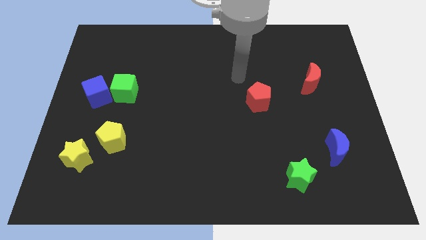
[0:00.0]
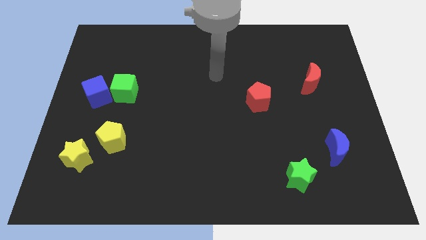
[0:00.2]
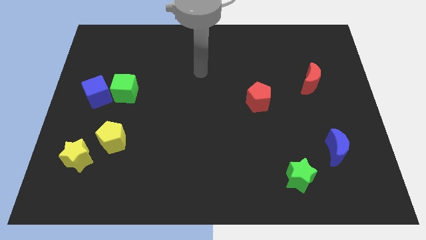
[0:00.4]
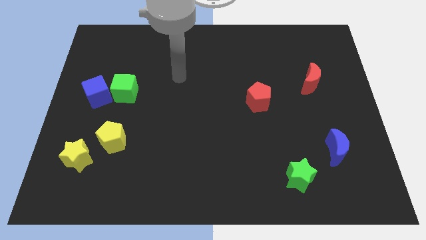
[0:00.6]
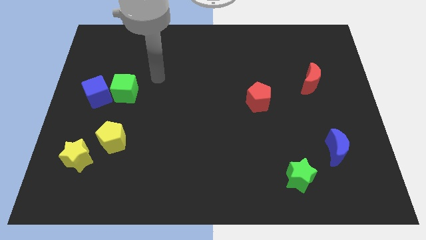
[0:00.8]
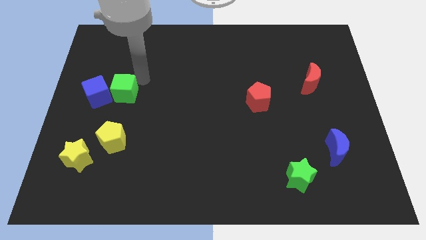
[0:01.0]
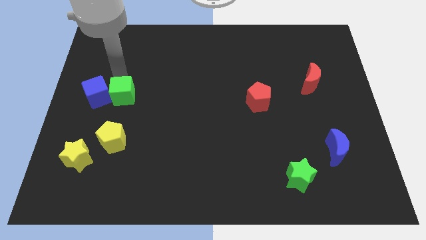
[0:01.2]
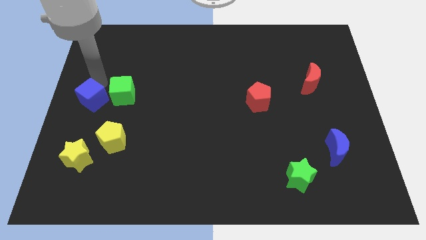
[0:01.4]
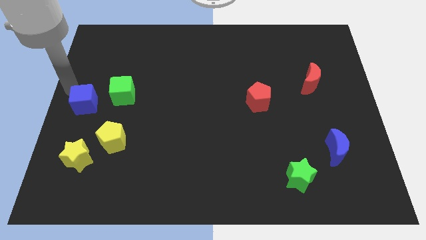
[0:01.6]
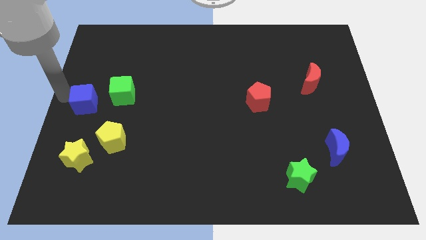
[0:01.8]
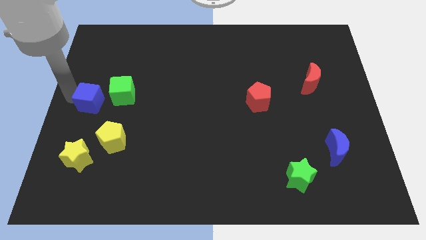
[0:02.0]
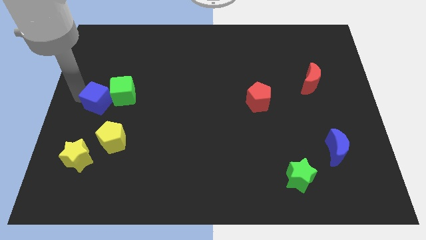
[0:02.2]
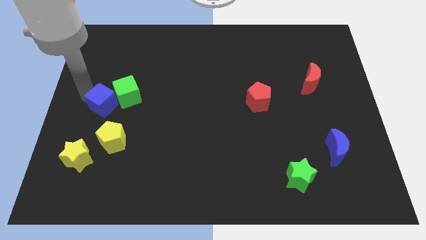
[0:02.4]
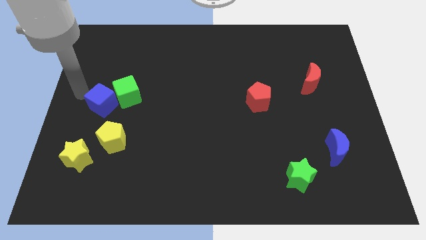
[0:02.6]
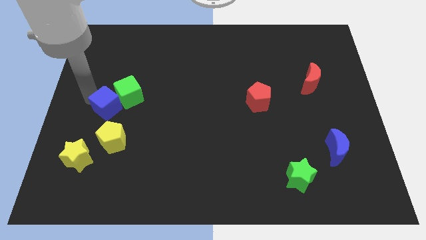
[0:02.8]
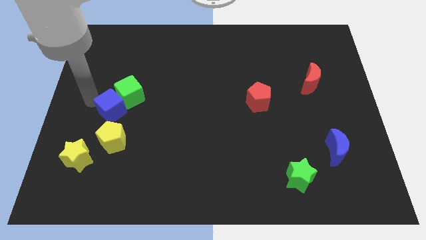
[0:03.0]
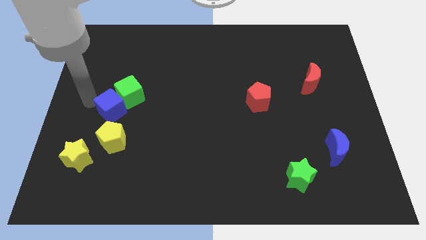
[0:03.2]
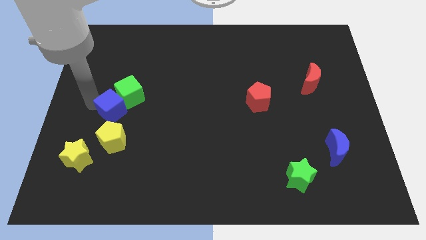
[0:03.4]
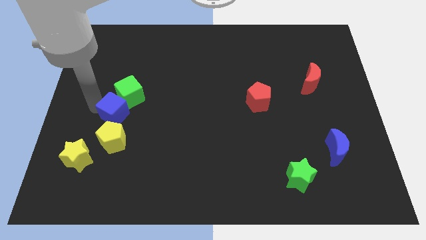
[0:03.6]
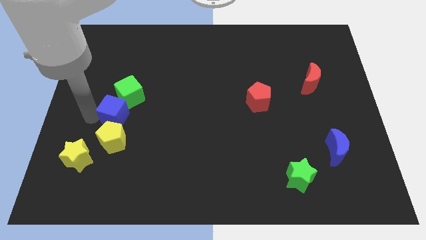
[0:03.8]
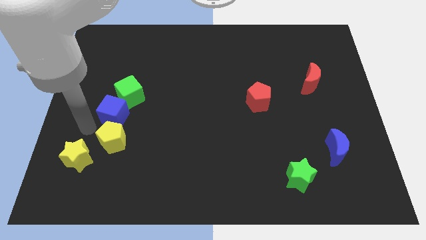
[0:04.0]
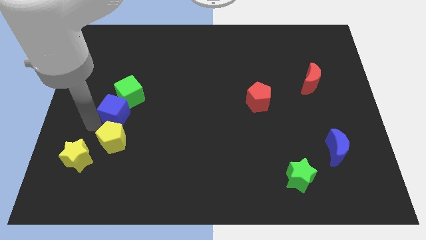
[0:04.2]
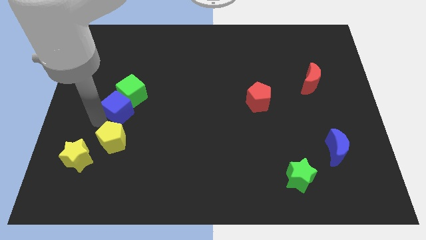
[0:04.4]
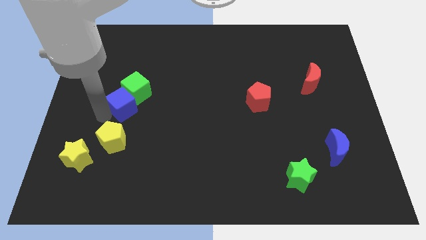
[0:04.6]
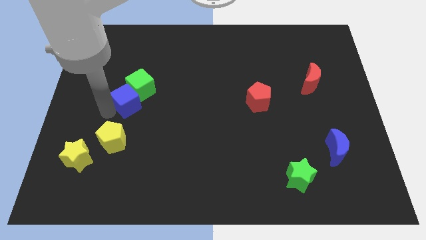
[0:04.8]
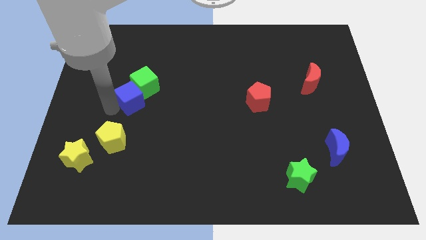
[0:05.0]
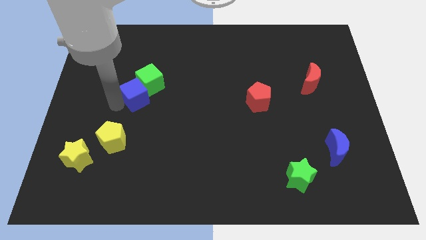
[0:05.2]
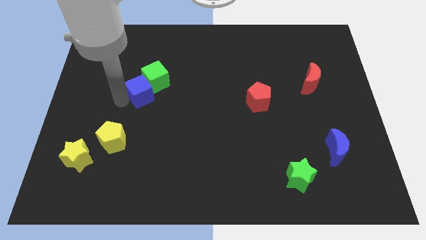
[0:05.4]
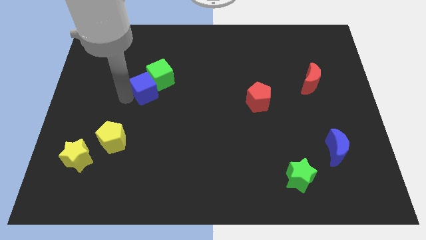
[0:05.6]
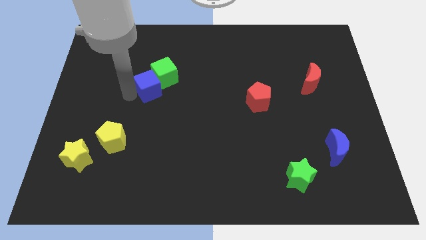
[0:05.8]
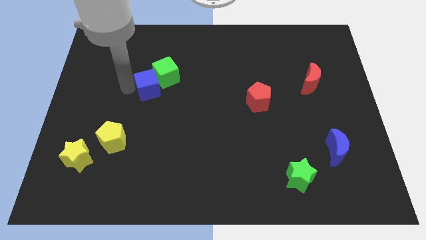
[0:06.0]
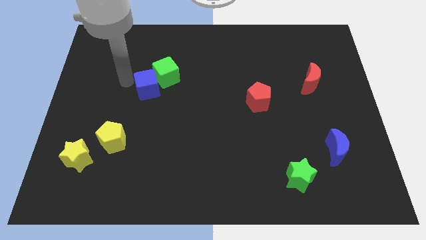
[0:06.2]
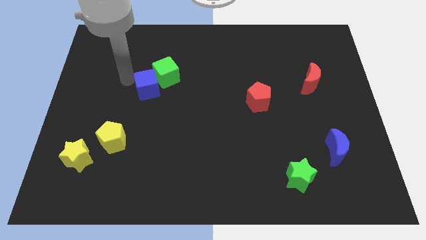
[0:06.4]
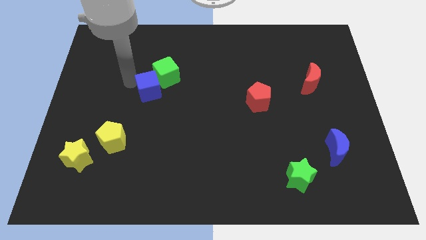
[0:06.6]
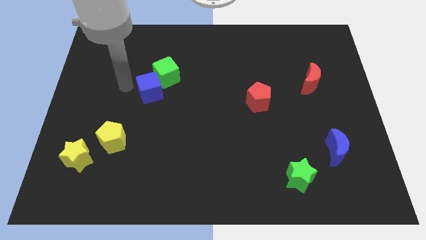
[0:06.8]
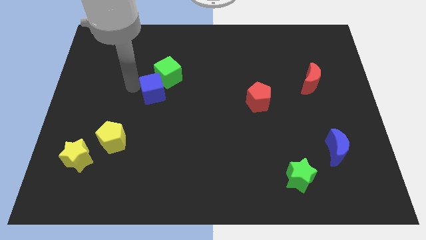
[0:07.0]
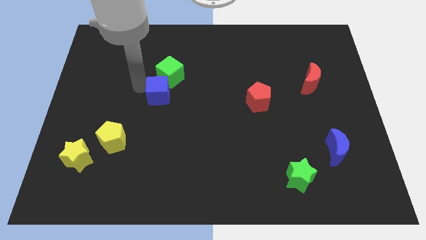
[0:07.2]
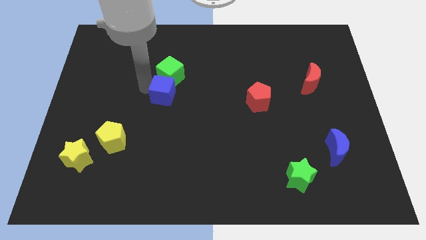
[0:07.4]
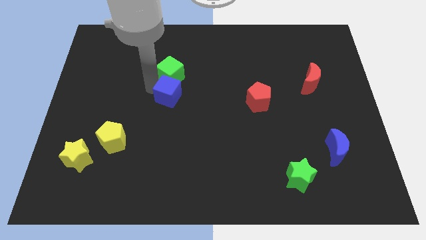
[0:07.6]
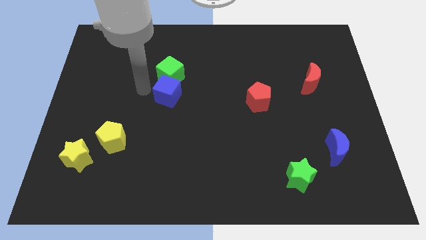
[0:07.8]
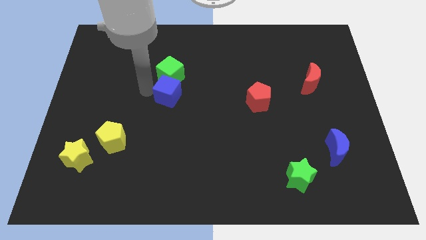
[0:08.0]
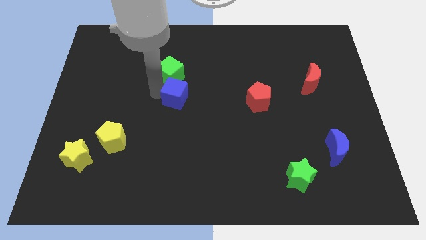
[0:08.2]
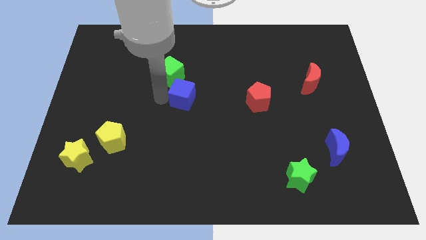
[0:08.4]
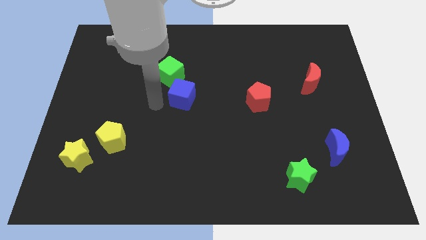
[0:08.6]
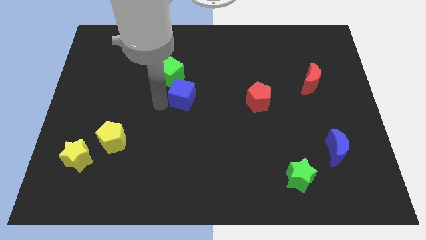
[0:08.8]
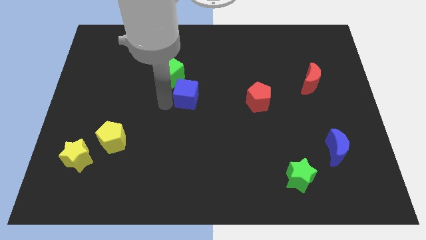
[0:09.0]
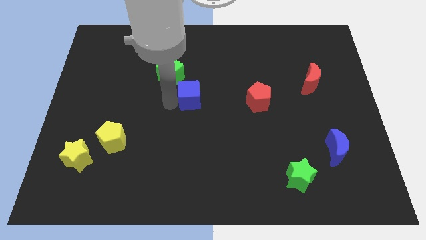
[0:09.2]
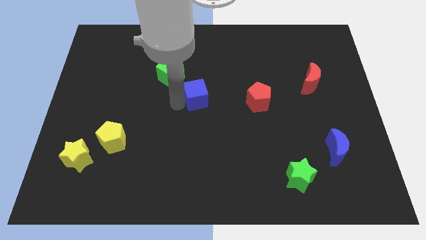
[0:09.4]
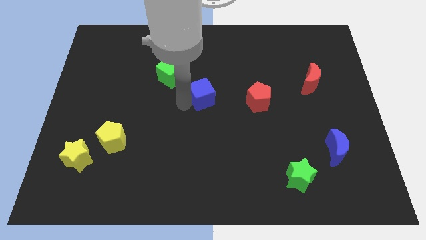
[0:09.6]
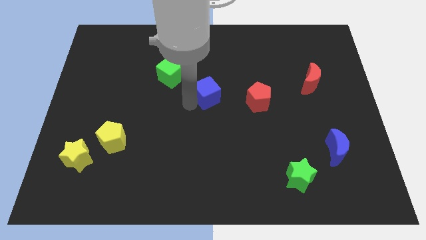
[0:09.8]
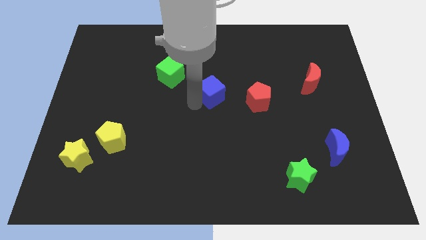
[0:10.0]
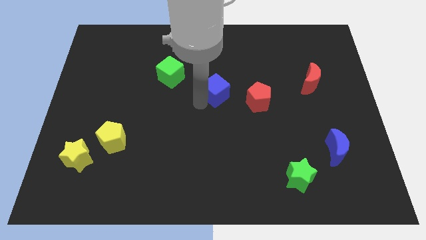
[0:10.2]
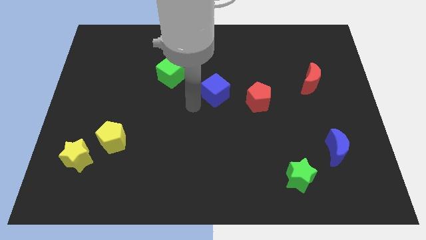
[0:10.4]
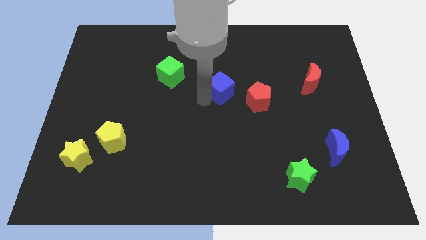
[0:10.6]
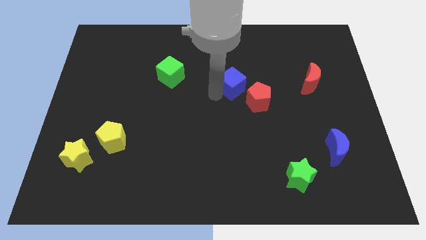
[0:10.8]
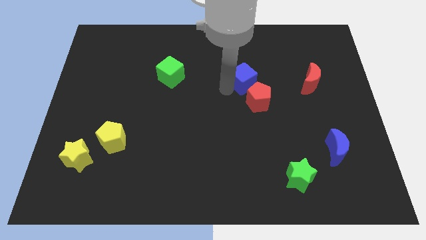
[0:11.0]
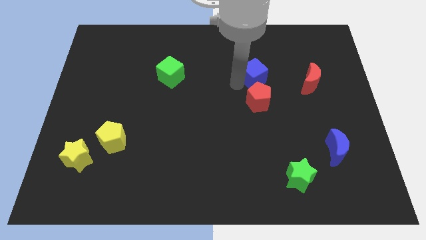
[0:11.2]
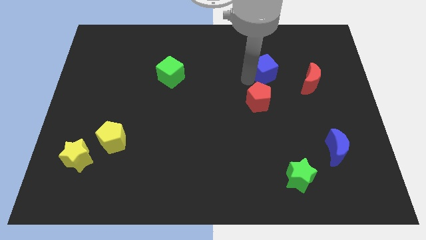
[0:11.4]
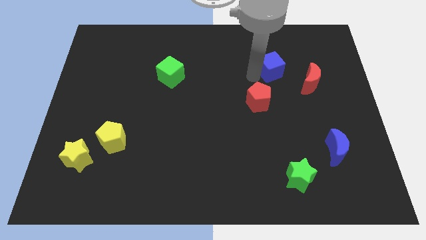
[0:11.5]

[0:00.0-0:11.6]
move the blue cube to the top left side of the red moon

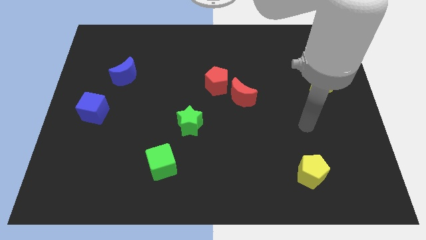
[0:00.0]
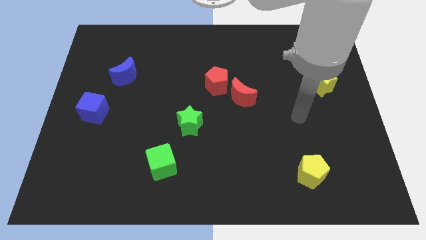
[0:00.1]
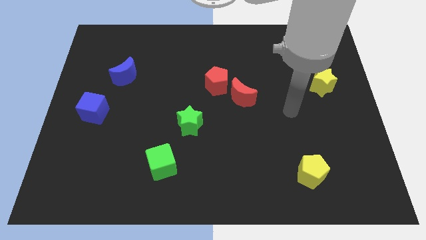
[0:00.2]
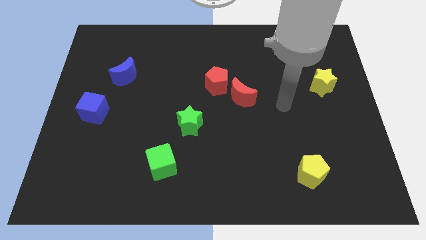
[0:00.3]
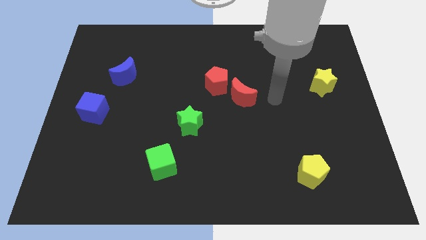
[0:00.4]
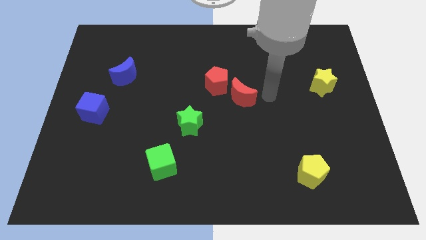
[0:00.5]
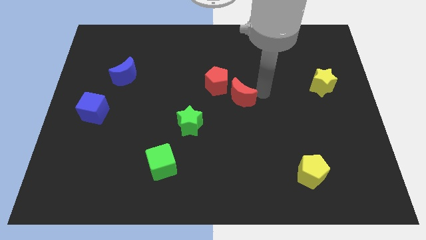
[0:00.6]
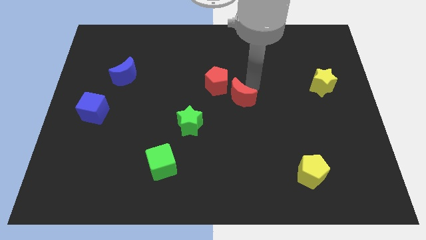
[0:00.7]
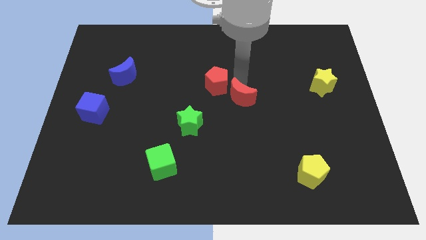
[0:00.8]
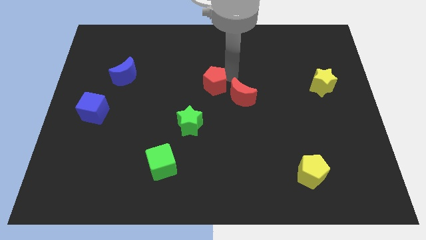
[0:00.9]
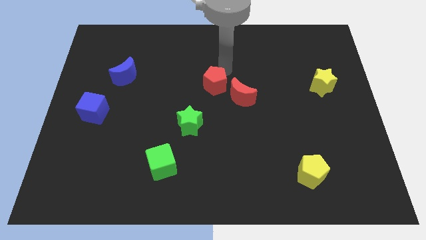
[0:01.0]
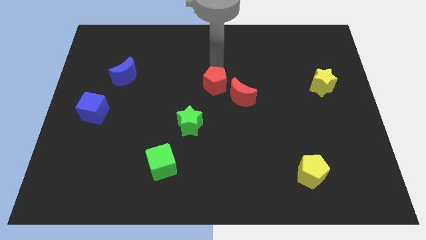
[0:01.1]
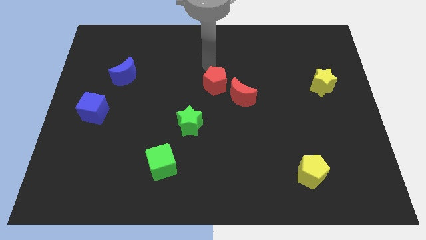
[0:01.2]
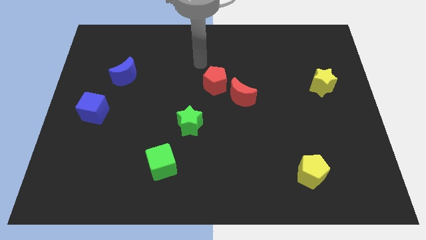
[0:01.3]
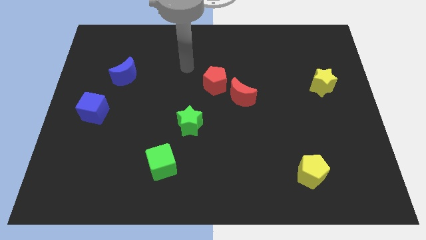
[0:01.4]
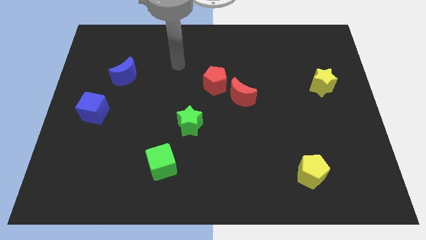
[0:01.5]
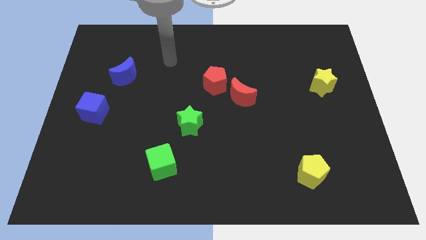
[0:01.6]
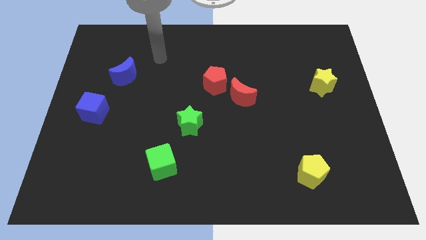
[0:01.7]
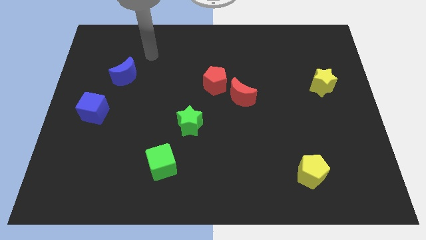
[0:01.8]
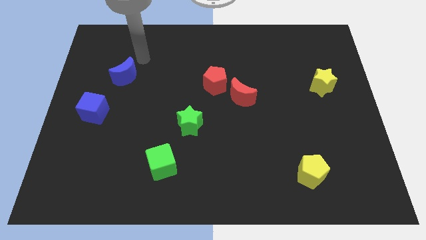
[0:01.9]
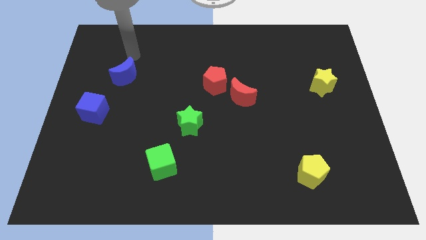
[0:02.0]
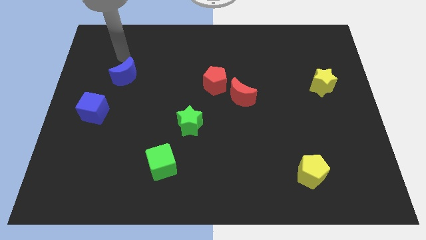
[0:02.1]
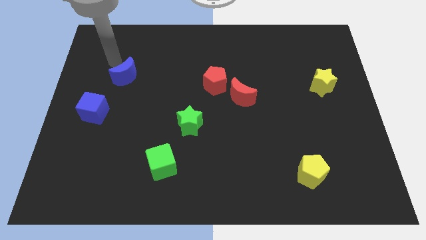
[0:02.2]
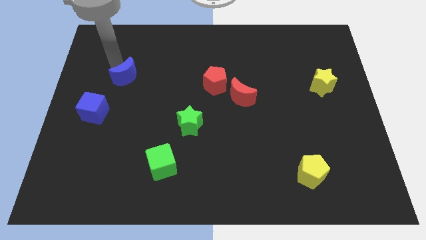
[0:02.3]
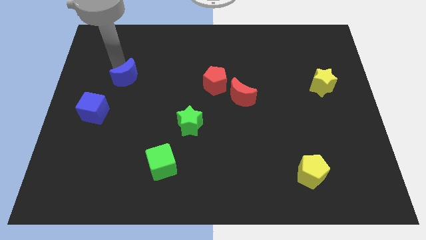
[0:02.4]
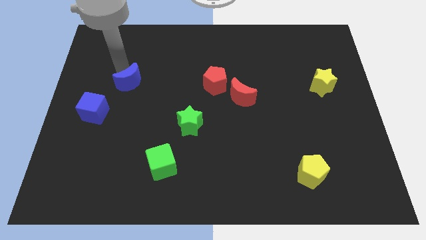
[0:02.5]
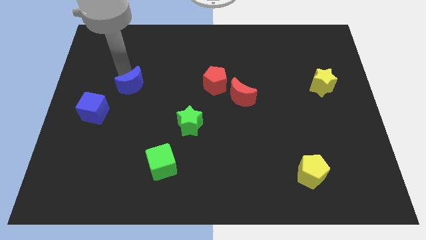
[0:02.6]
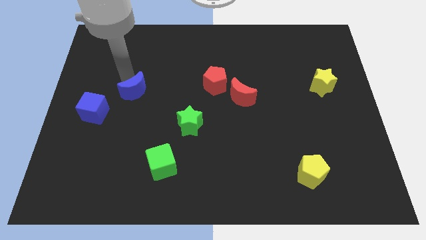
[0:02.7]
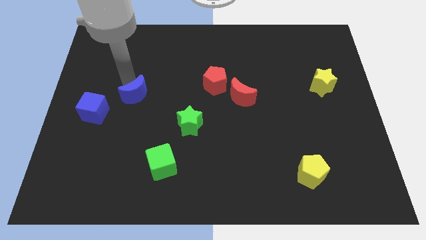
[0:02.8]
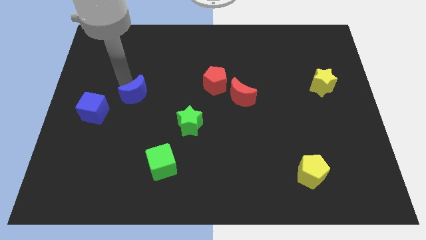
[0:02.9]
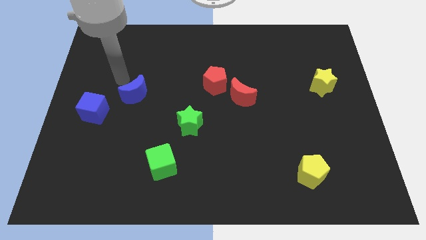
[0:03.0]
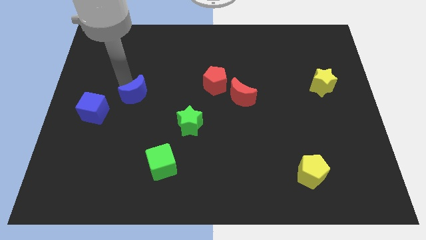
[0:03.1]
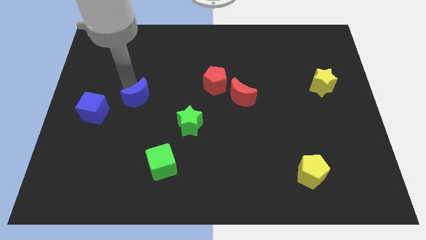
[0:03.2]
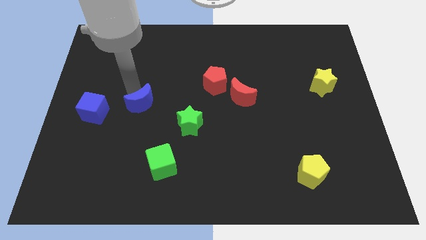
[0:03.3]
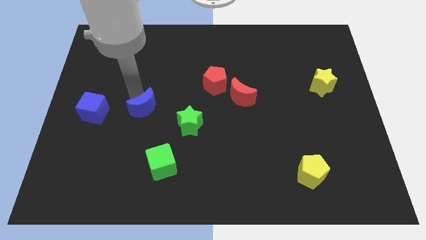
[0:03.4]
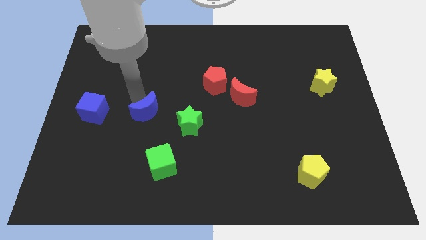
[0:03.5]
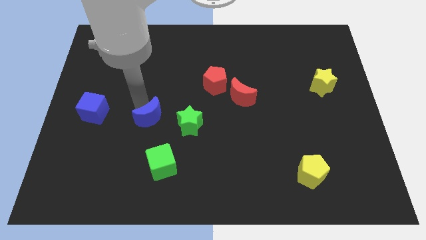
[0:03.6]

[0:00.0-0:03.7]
slide the blue moon to the top of the green cube
